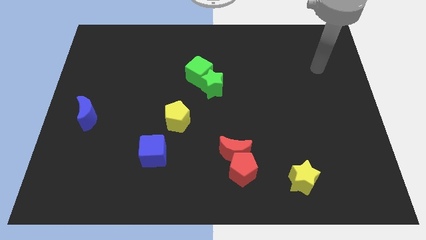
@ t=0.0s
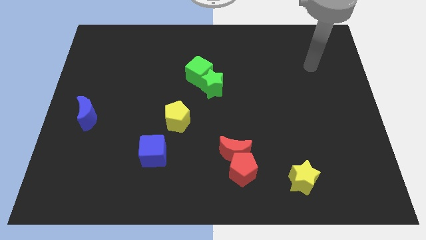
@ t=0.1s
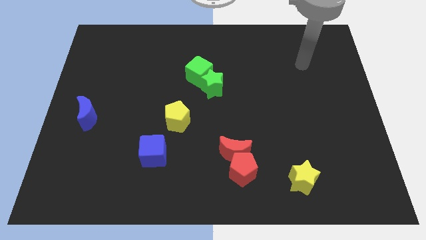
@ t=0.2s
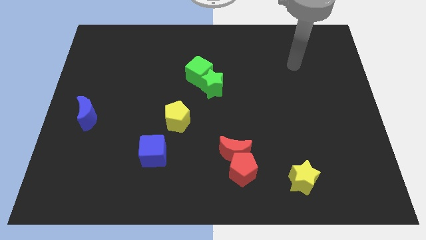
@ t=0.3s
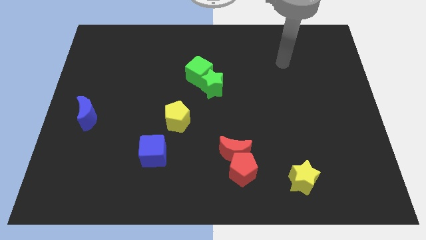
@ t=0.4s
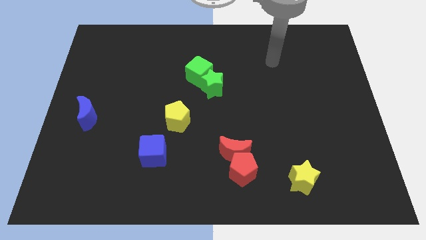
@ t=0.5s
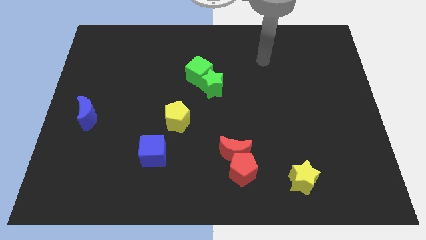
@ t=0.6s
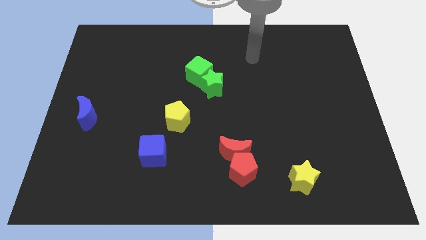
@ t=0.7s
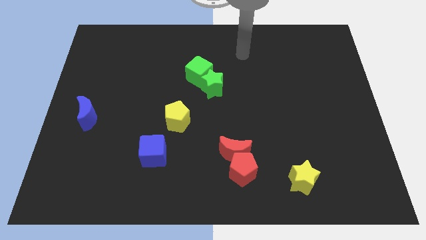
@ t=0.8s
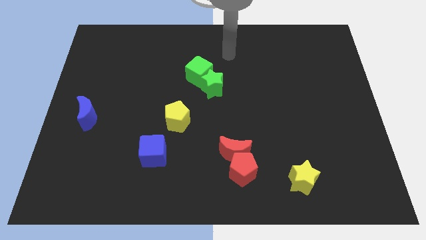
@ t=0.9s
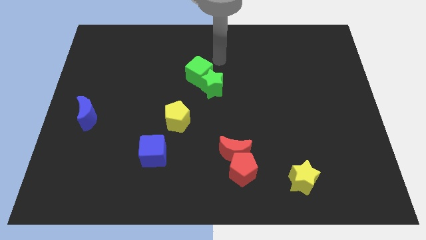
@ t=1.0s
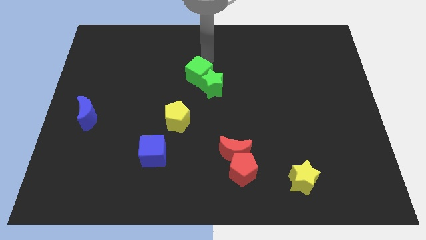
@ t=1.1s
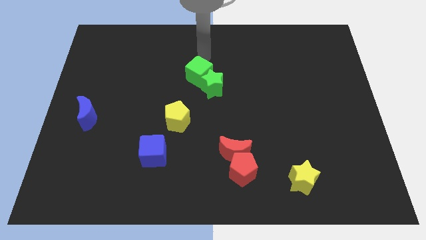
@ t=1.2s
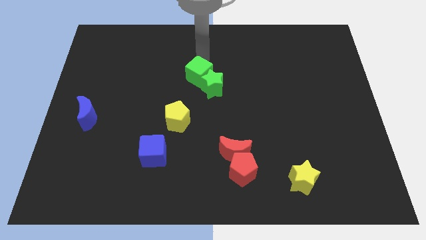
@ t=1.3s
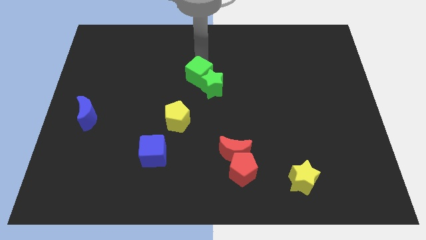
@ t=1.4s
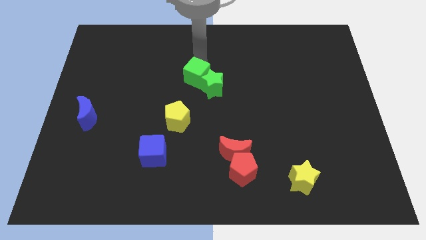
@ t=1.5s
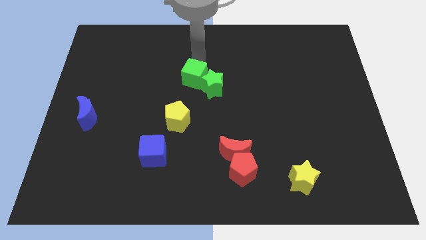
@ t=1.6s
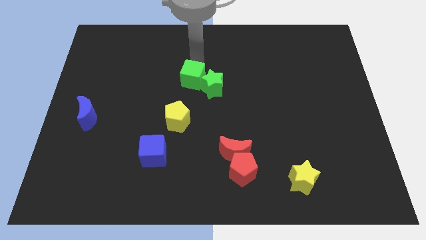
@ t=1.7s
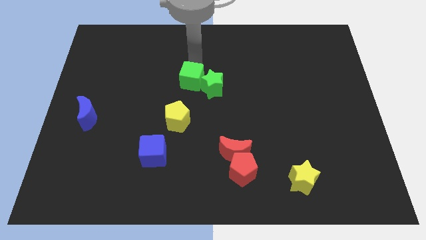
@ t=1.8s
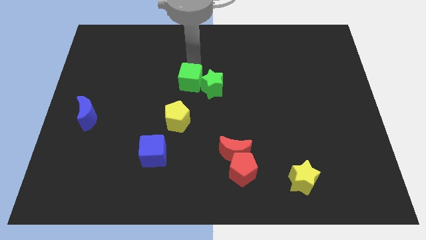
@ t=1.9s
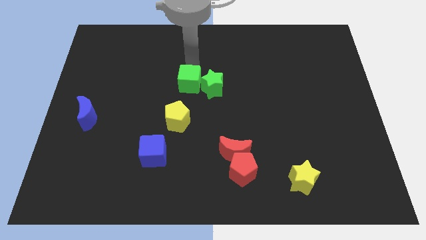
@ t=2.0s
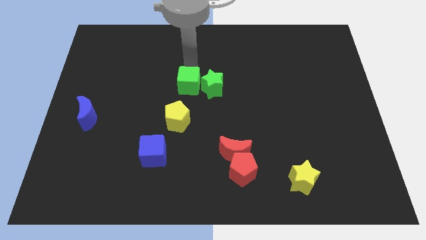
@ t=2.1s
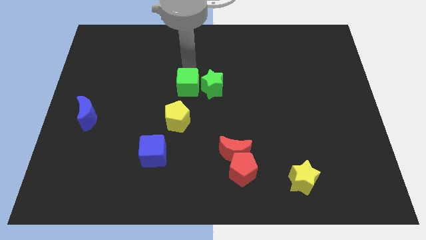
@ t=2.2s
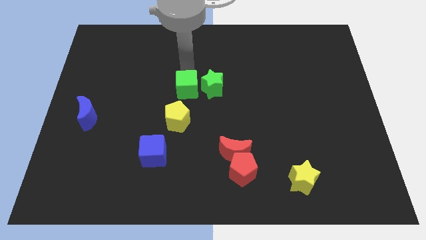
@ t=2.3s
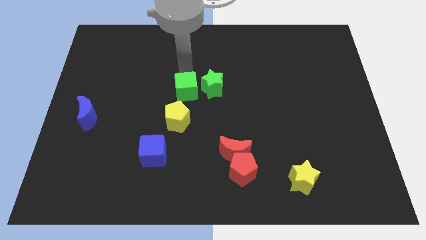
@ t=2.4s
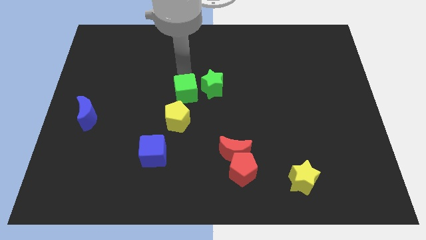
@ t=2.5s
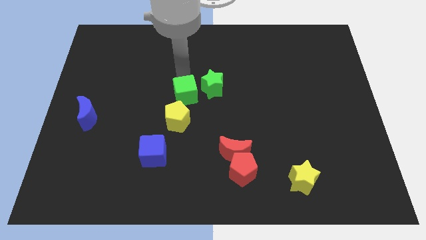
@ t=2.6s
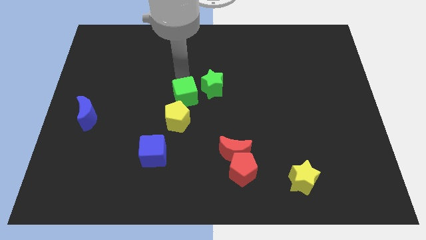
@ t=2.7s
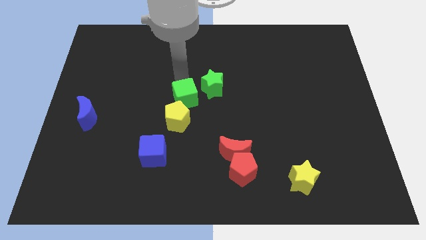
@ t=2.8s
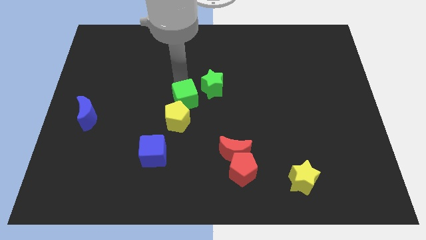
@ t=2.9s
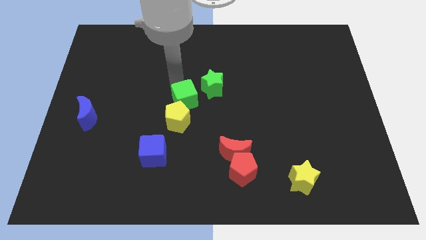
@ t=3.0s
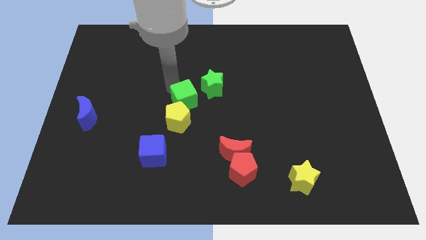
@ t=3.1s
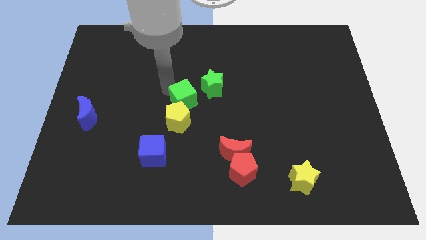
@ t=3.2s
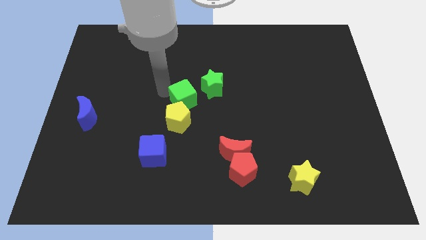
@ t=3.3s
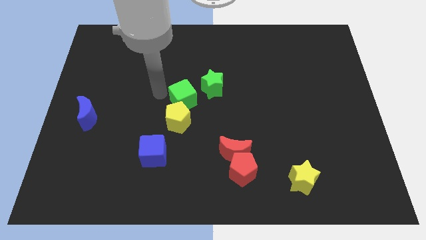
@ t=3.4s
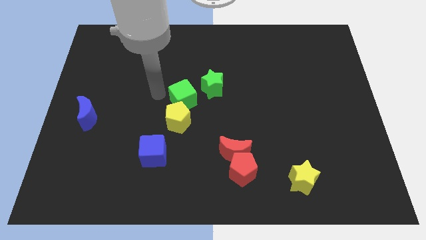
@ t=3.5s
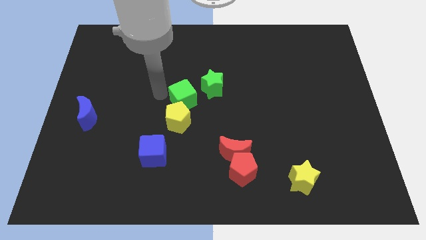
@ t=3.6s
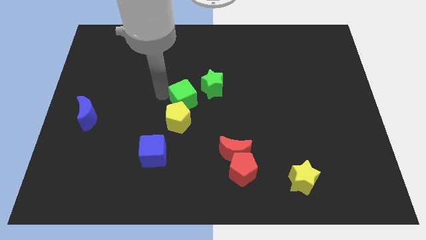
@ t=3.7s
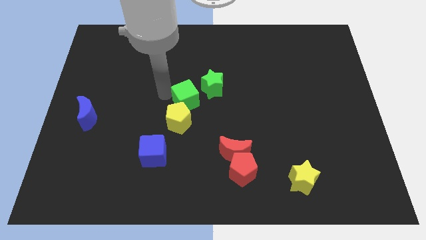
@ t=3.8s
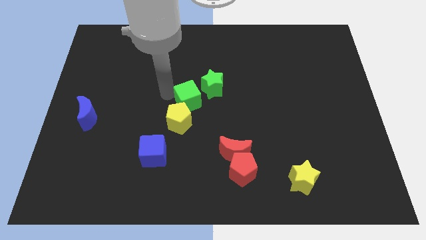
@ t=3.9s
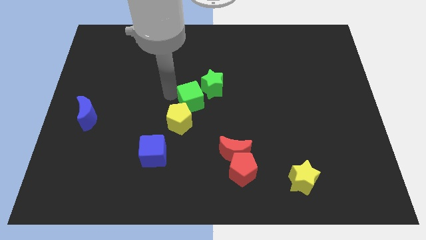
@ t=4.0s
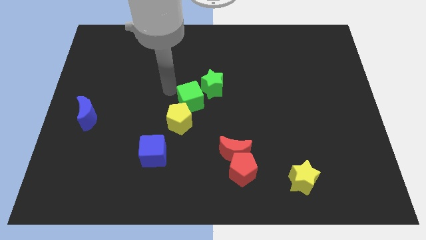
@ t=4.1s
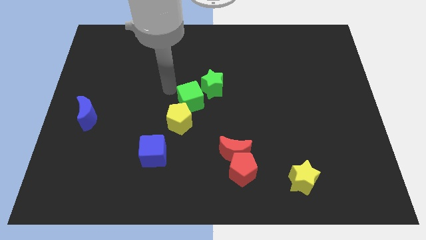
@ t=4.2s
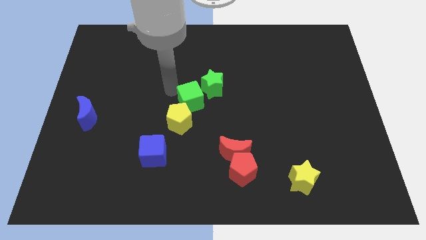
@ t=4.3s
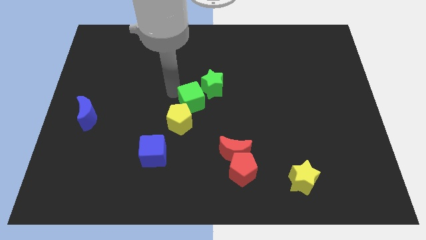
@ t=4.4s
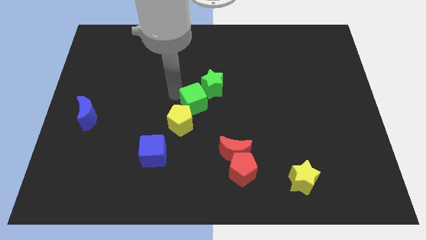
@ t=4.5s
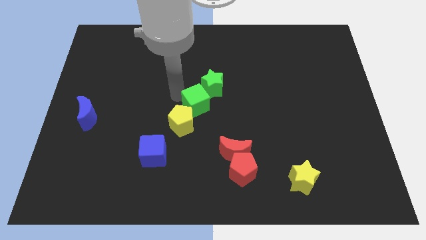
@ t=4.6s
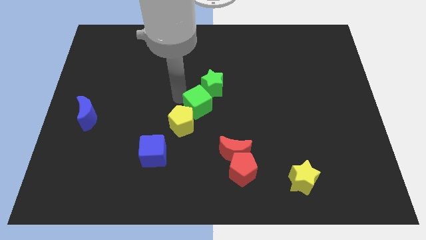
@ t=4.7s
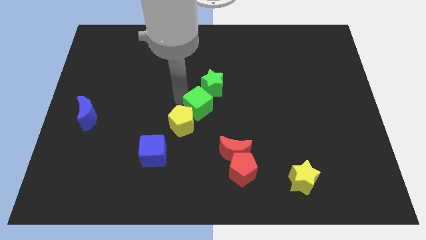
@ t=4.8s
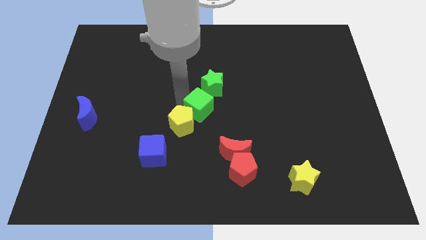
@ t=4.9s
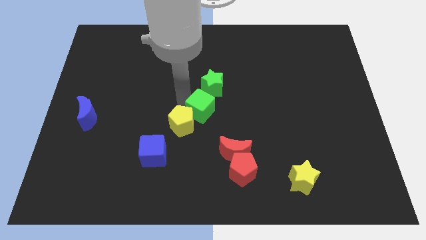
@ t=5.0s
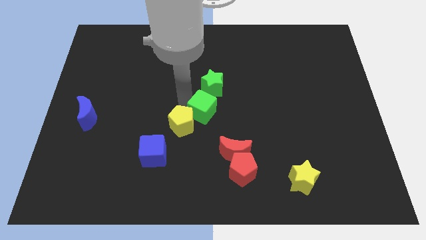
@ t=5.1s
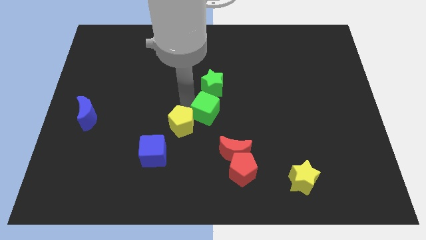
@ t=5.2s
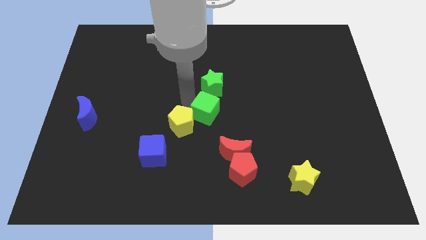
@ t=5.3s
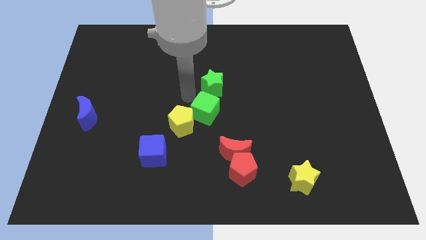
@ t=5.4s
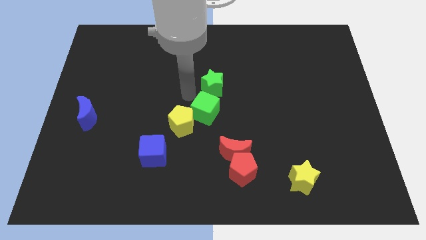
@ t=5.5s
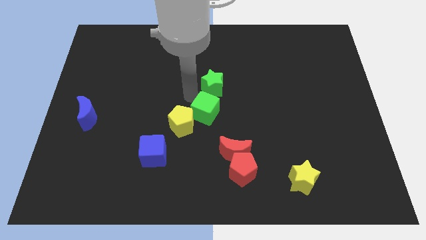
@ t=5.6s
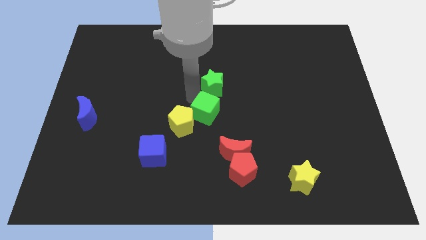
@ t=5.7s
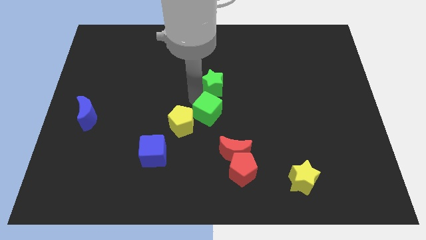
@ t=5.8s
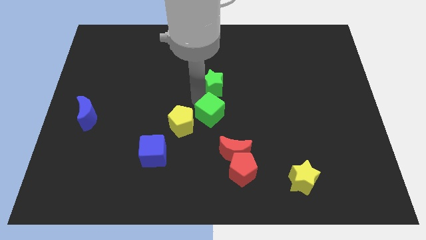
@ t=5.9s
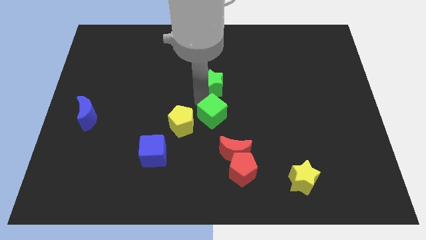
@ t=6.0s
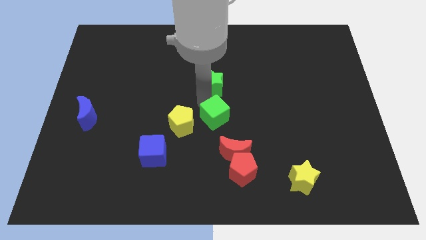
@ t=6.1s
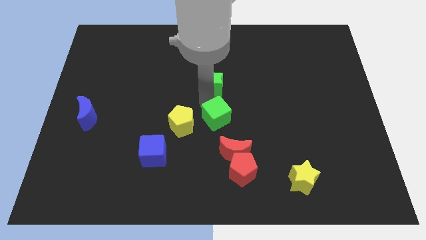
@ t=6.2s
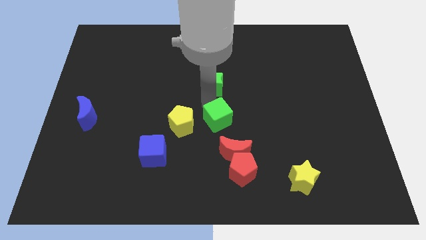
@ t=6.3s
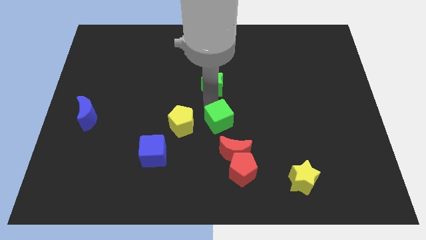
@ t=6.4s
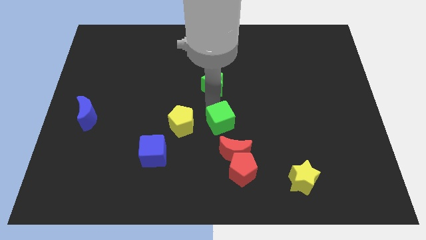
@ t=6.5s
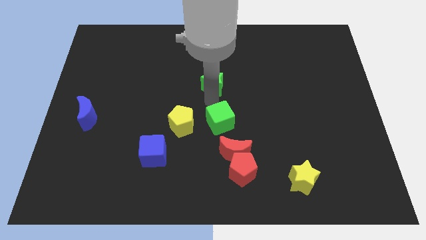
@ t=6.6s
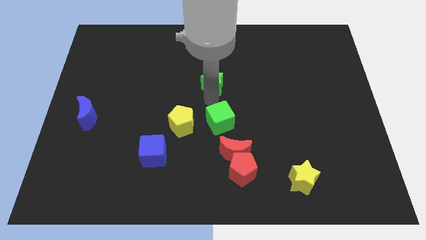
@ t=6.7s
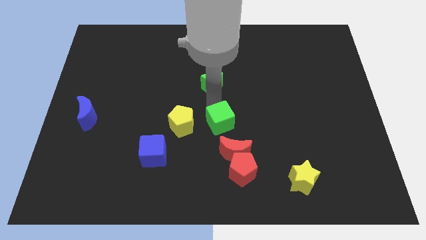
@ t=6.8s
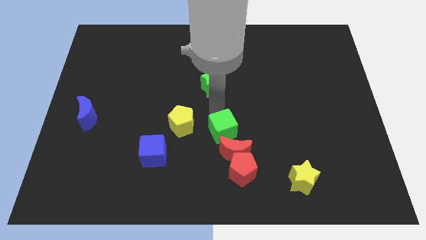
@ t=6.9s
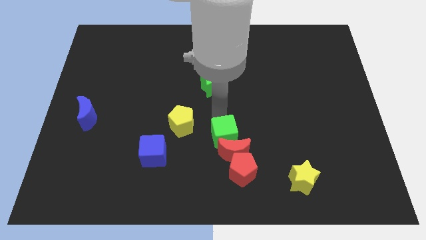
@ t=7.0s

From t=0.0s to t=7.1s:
move the green cube towards the red moon
